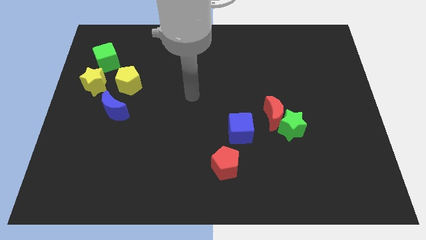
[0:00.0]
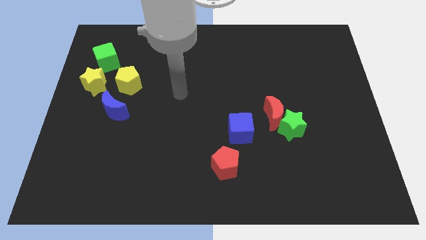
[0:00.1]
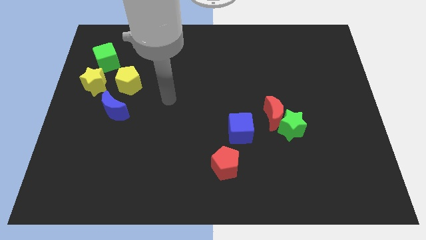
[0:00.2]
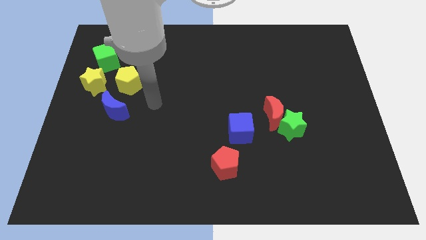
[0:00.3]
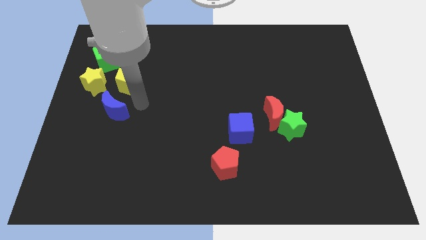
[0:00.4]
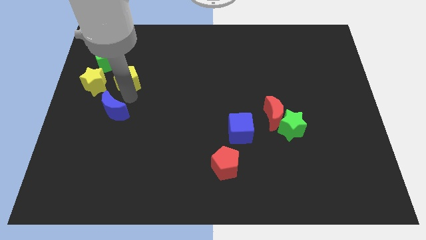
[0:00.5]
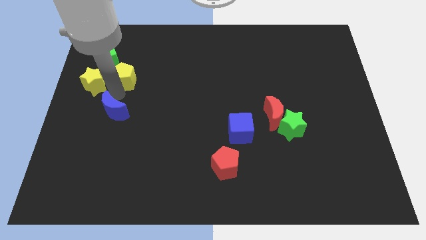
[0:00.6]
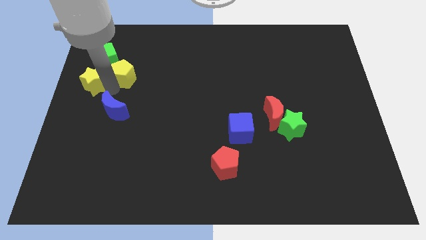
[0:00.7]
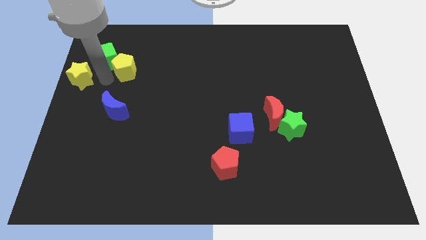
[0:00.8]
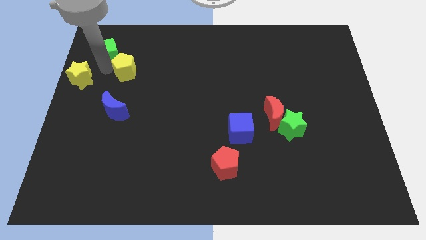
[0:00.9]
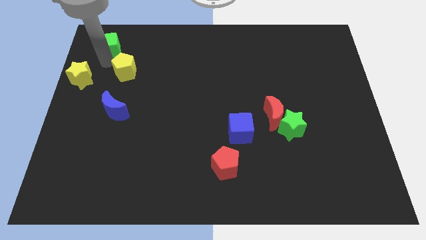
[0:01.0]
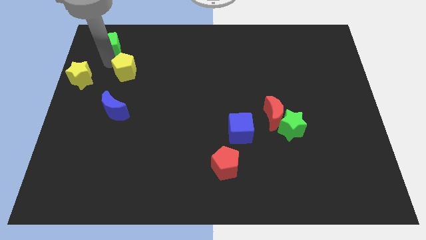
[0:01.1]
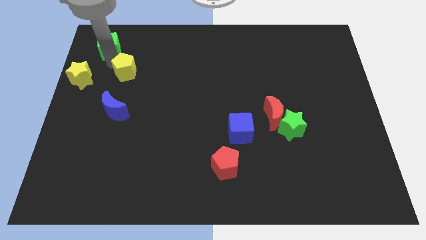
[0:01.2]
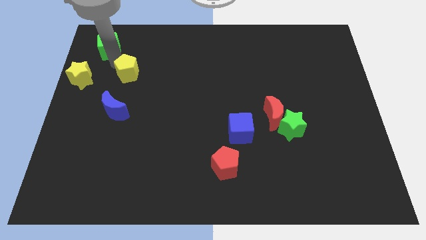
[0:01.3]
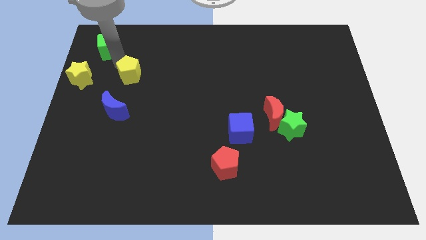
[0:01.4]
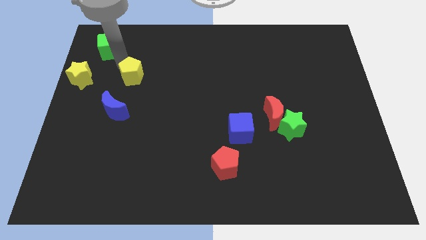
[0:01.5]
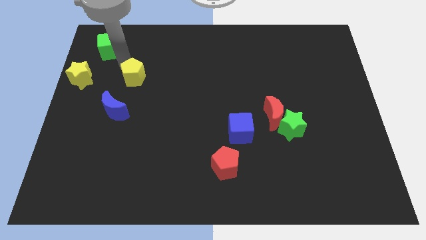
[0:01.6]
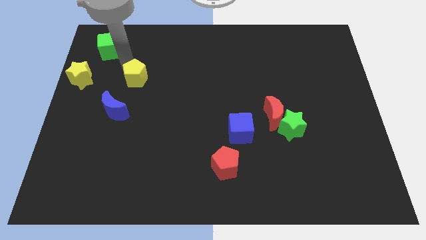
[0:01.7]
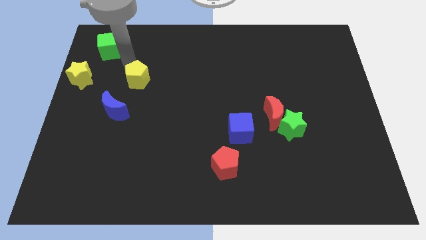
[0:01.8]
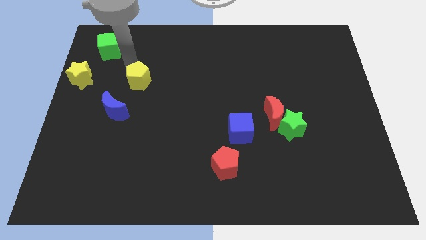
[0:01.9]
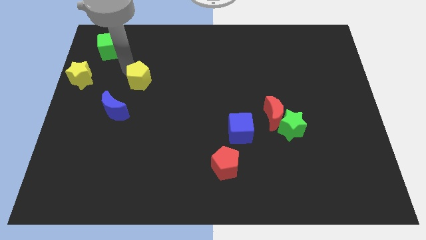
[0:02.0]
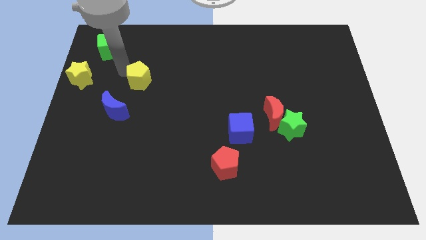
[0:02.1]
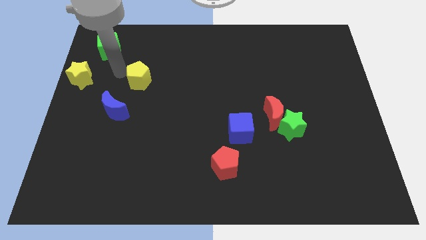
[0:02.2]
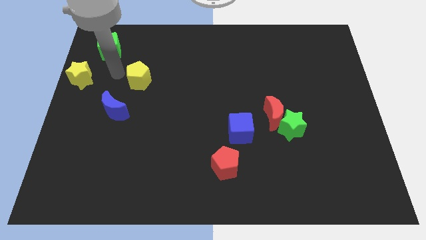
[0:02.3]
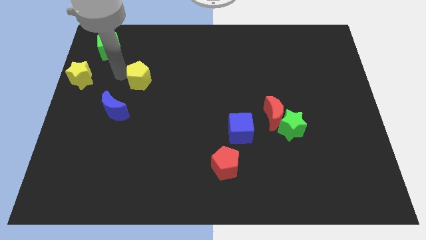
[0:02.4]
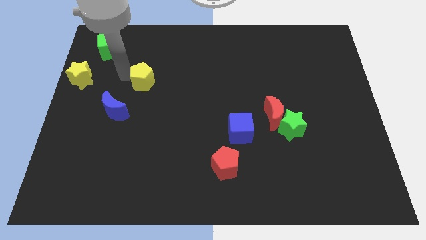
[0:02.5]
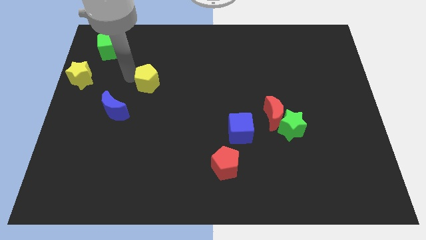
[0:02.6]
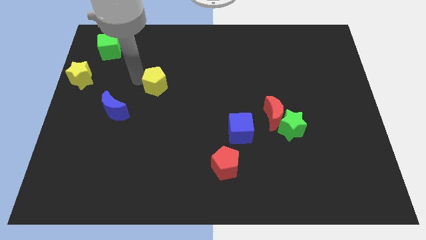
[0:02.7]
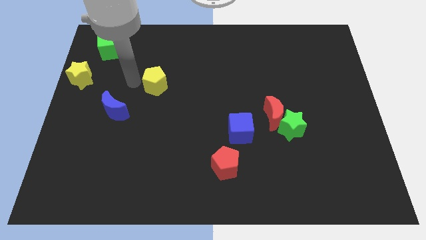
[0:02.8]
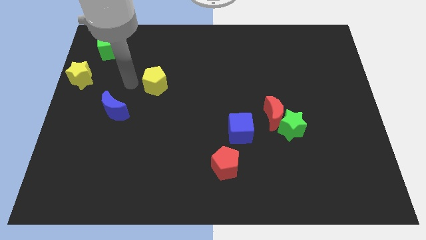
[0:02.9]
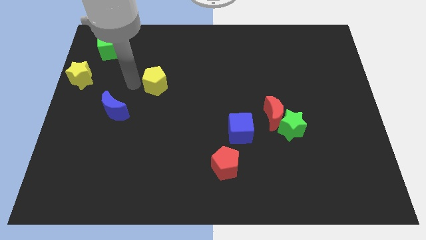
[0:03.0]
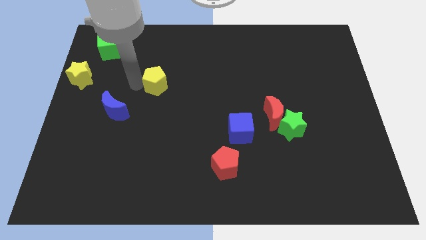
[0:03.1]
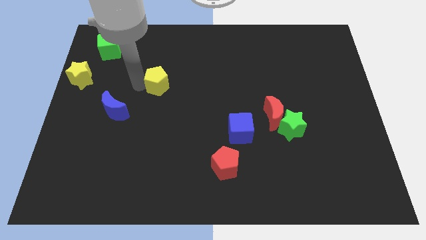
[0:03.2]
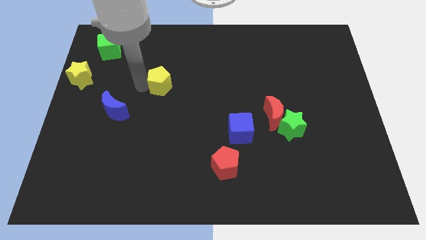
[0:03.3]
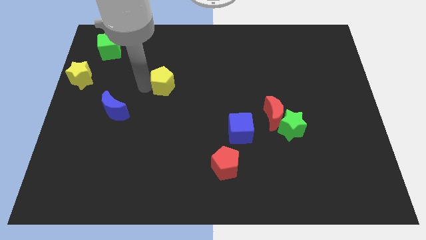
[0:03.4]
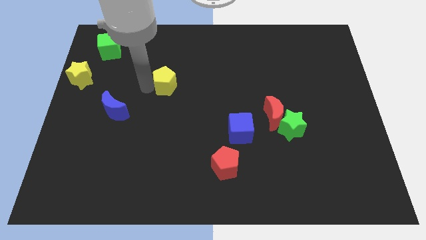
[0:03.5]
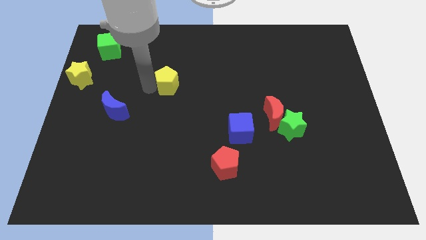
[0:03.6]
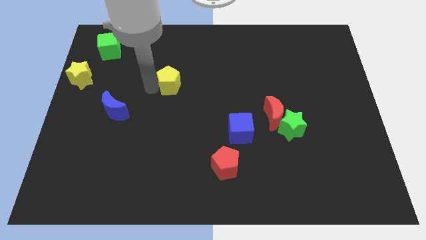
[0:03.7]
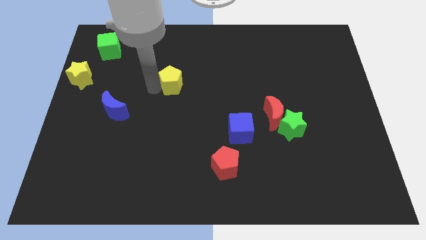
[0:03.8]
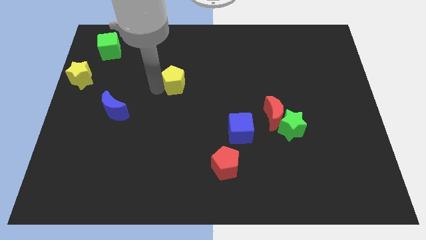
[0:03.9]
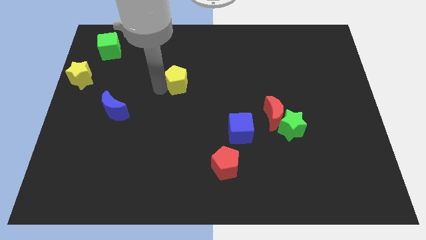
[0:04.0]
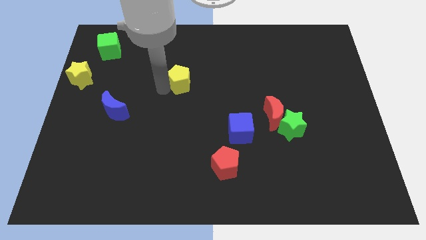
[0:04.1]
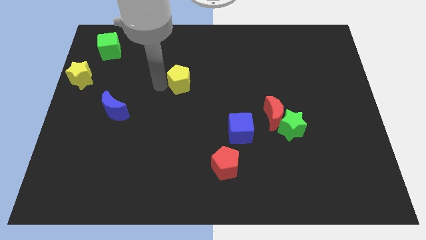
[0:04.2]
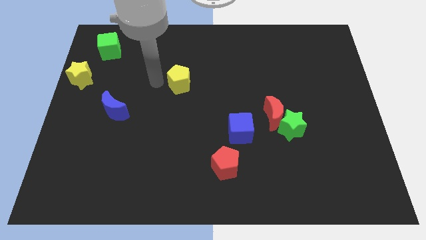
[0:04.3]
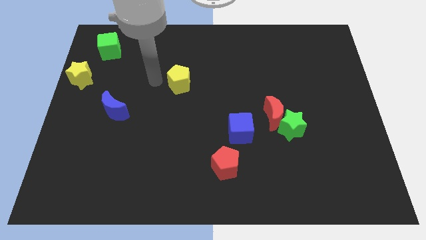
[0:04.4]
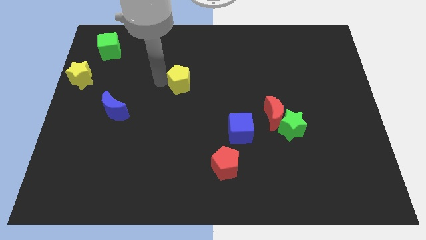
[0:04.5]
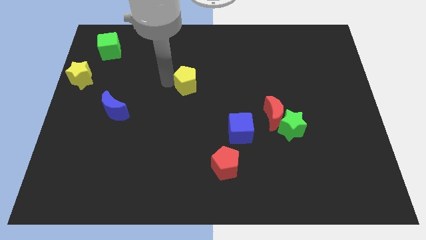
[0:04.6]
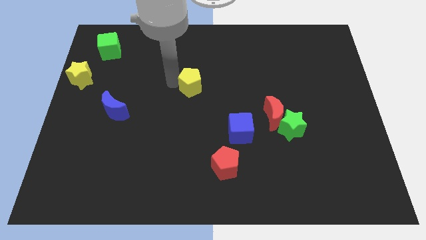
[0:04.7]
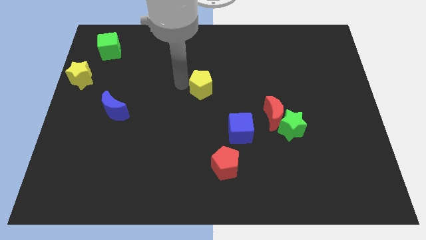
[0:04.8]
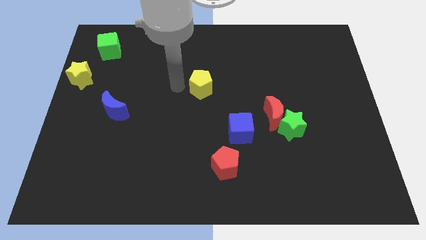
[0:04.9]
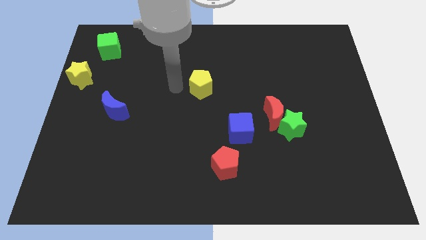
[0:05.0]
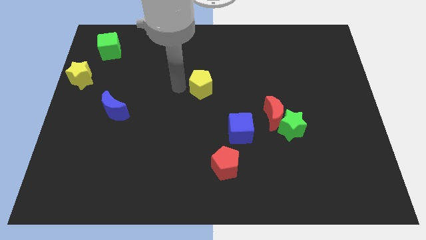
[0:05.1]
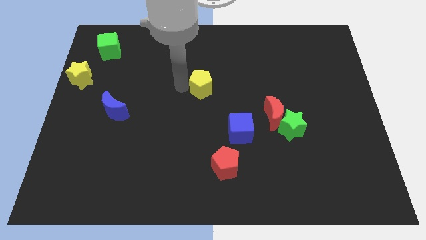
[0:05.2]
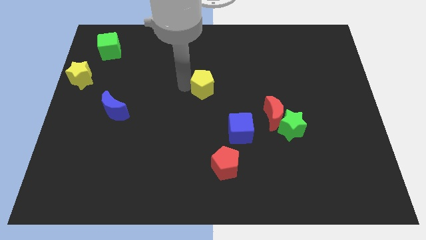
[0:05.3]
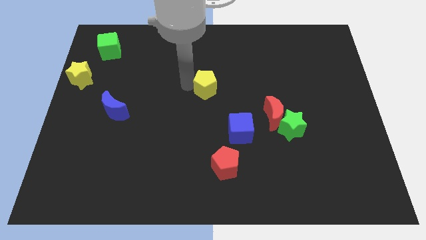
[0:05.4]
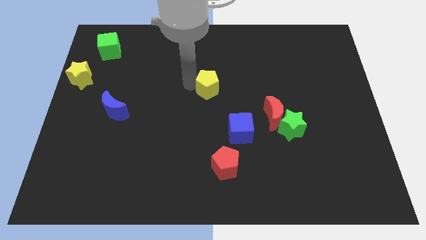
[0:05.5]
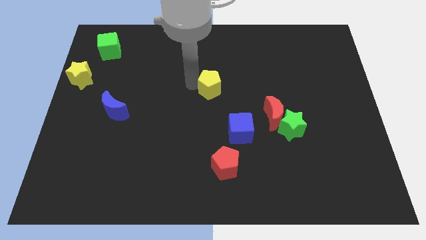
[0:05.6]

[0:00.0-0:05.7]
slide the yellow pentagon right

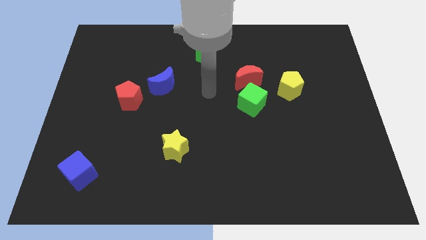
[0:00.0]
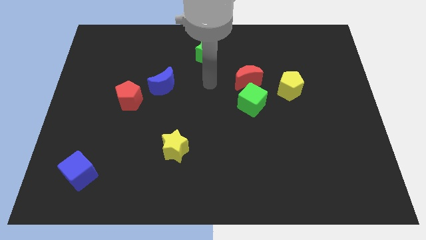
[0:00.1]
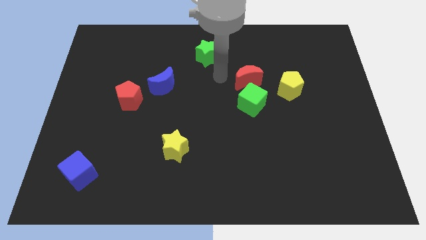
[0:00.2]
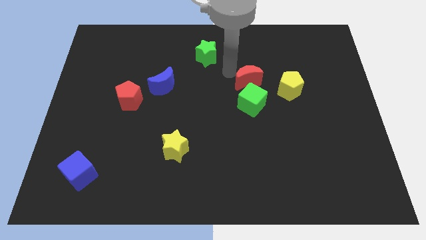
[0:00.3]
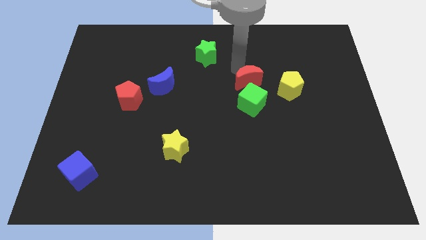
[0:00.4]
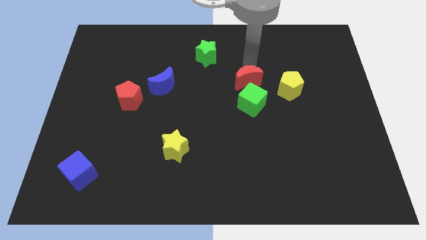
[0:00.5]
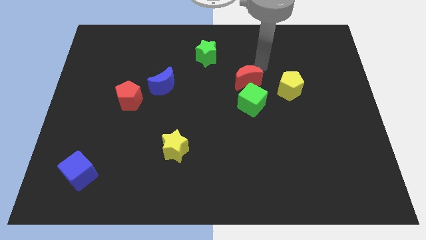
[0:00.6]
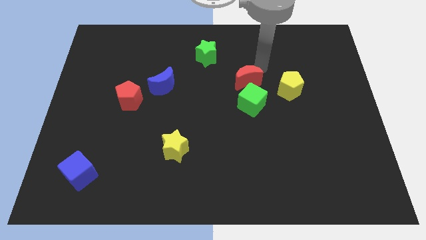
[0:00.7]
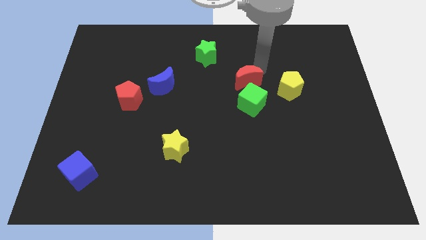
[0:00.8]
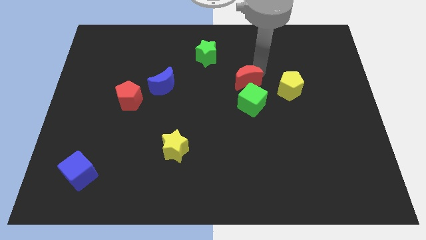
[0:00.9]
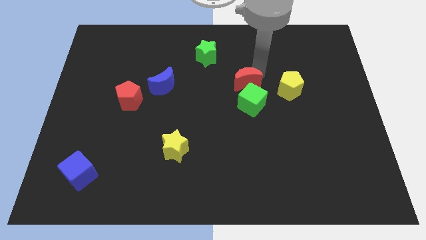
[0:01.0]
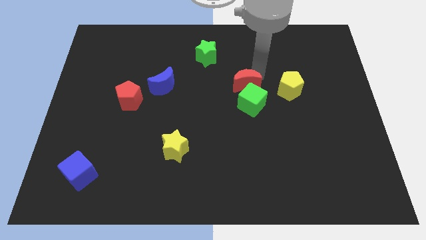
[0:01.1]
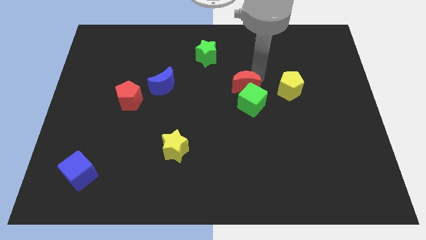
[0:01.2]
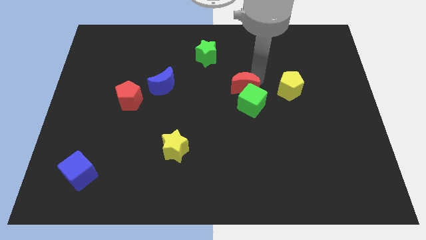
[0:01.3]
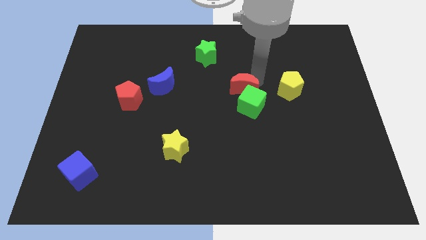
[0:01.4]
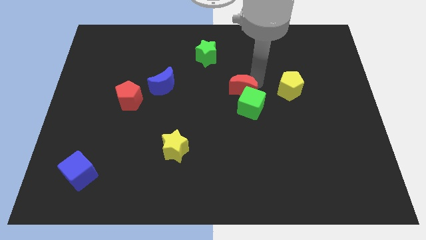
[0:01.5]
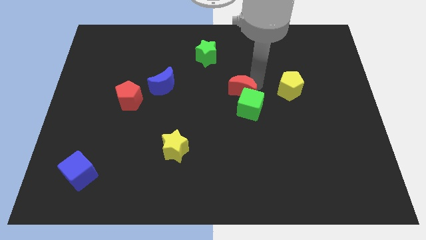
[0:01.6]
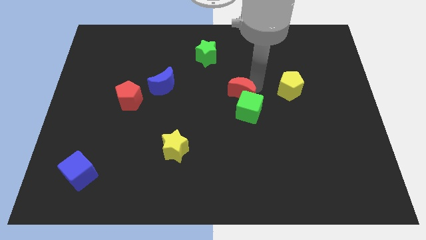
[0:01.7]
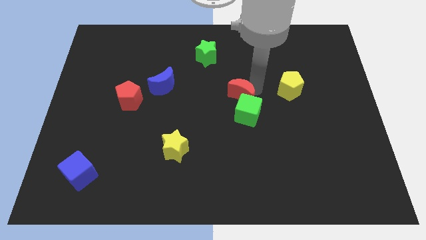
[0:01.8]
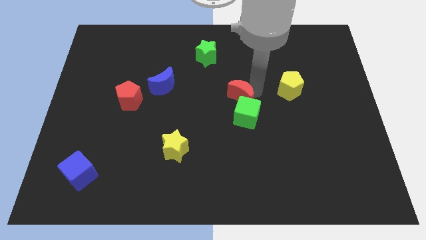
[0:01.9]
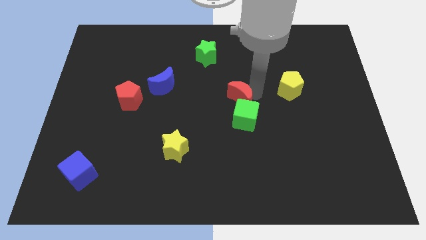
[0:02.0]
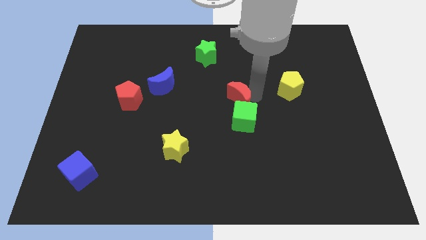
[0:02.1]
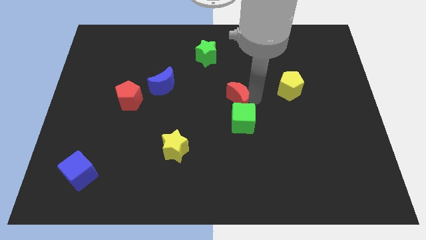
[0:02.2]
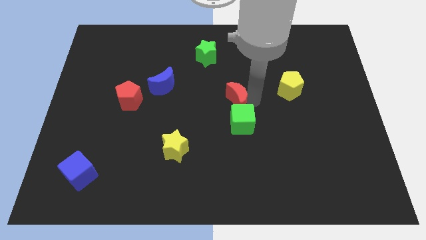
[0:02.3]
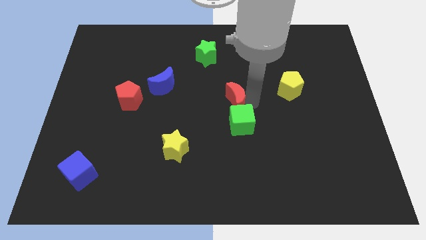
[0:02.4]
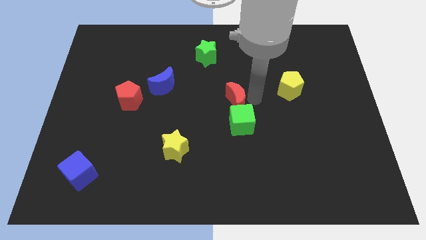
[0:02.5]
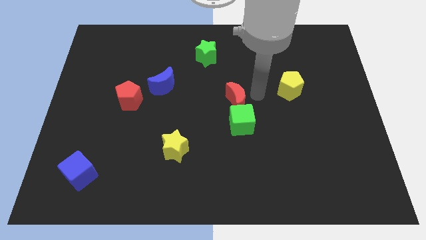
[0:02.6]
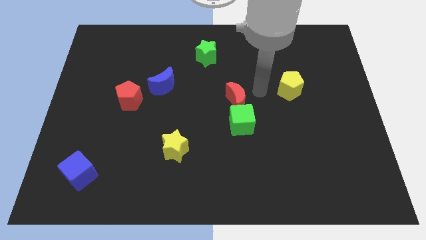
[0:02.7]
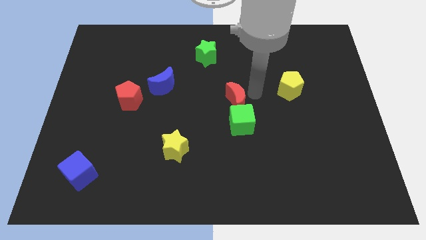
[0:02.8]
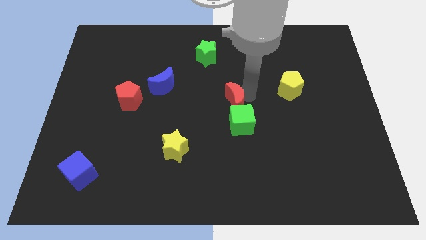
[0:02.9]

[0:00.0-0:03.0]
slide the red moon down and left diagonally a bit
